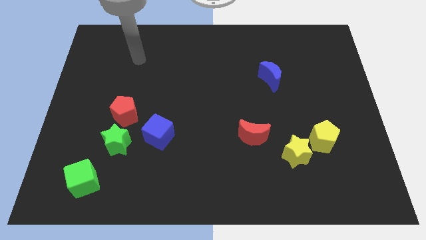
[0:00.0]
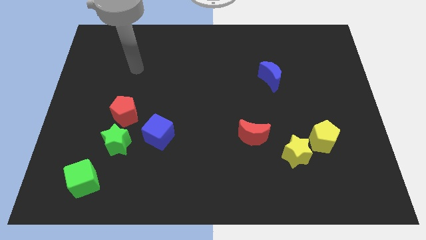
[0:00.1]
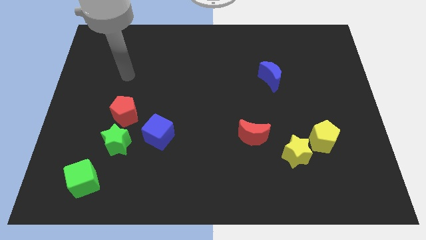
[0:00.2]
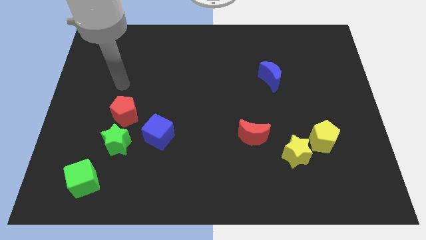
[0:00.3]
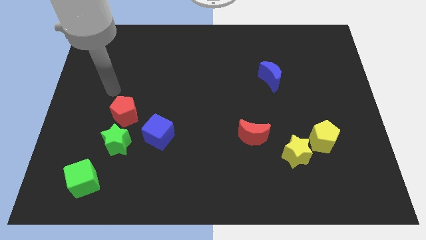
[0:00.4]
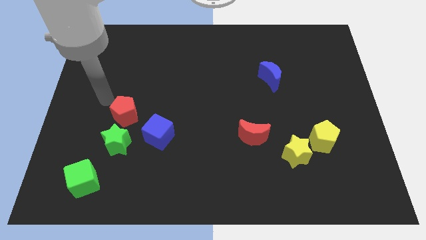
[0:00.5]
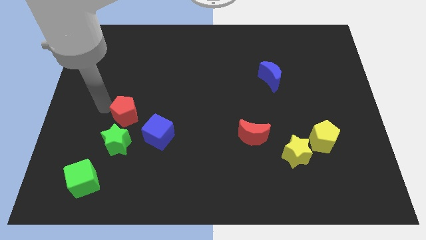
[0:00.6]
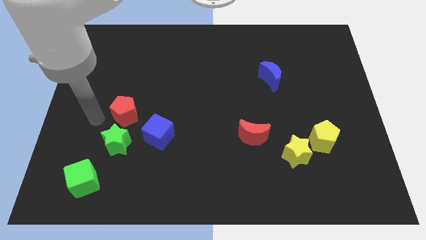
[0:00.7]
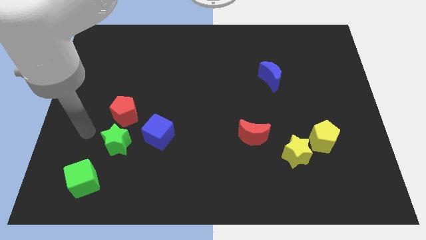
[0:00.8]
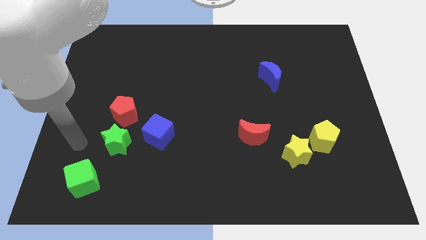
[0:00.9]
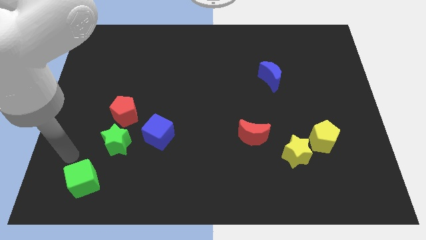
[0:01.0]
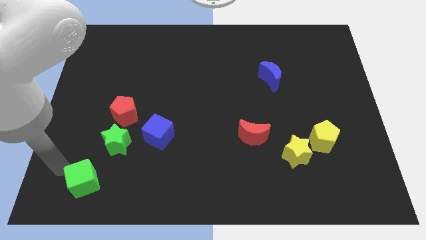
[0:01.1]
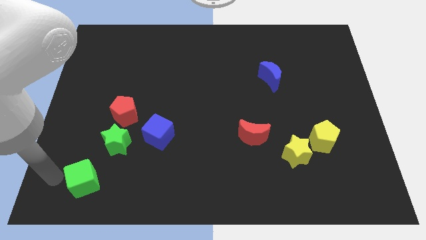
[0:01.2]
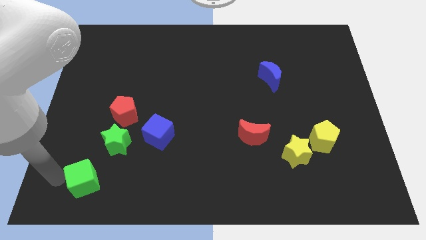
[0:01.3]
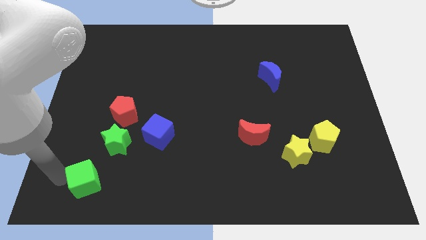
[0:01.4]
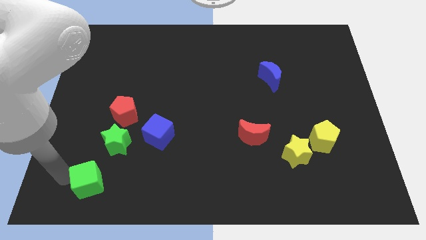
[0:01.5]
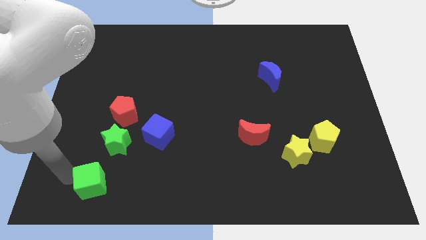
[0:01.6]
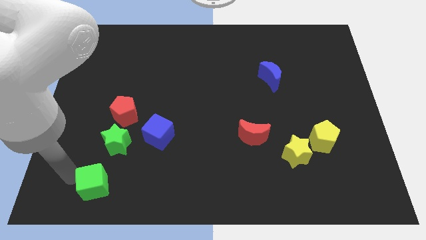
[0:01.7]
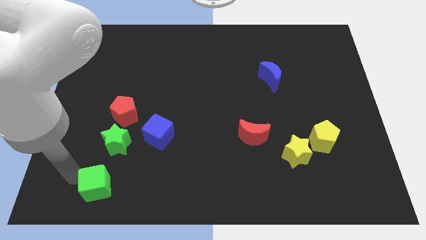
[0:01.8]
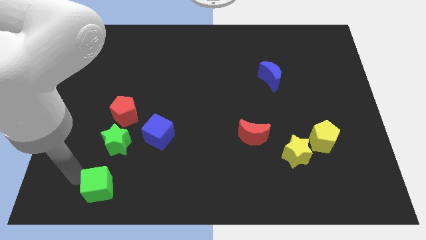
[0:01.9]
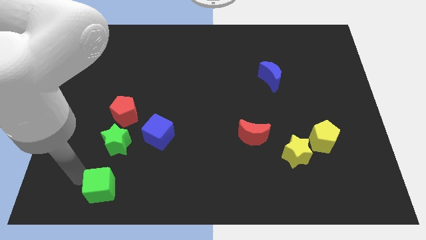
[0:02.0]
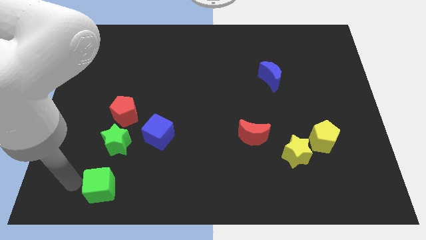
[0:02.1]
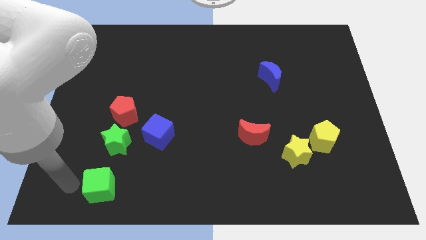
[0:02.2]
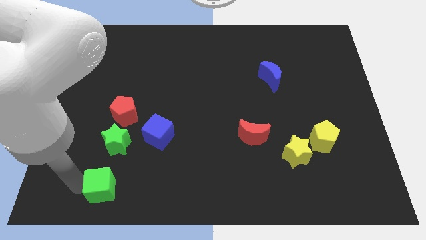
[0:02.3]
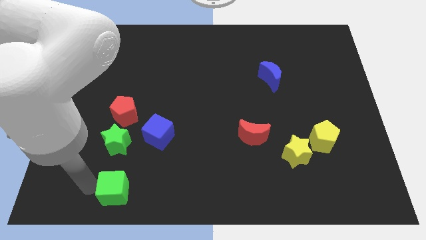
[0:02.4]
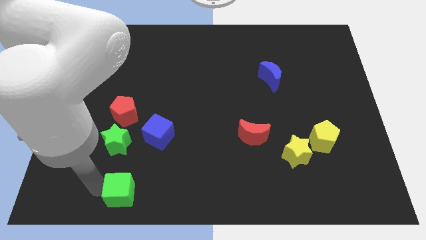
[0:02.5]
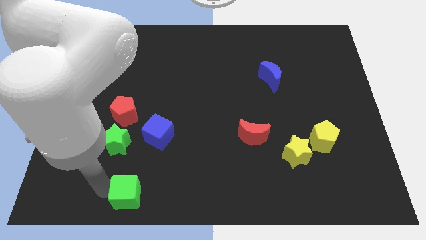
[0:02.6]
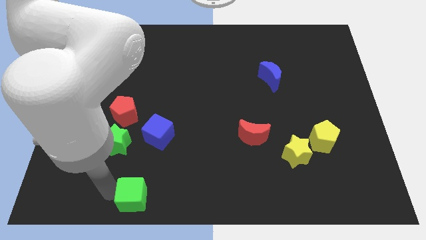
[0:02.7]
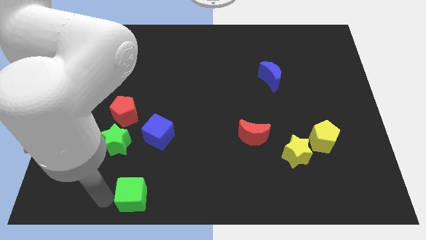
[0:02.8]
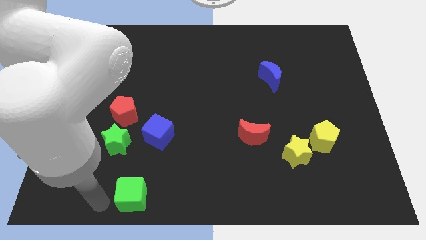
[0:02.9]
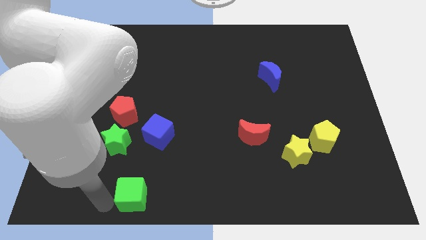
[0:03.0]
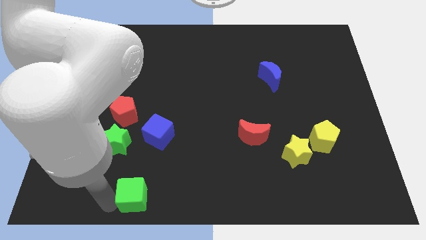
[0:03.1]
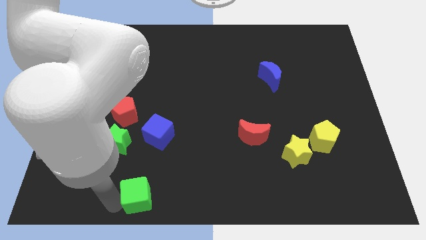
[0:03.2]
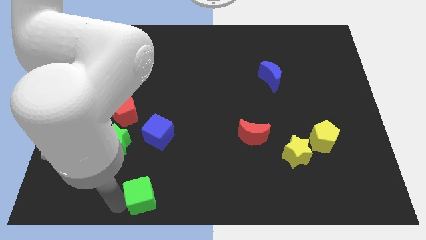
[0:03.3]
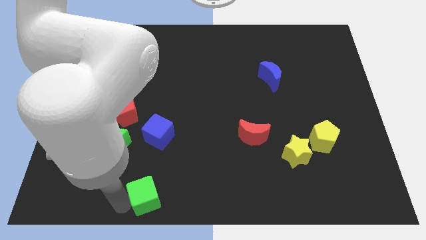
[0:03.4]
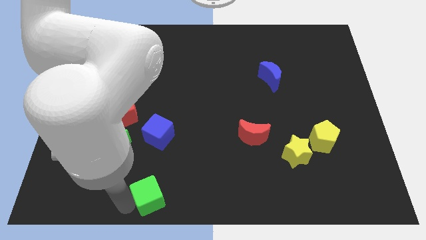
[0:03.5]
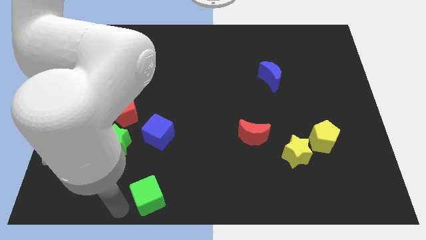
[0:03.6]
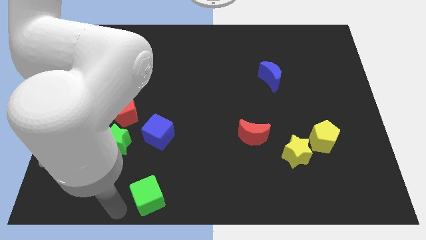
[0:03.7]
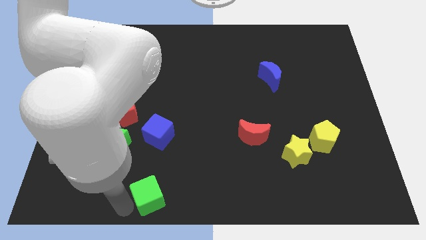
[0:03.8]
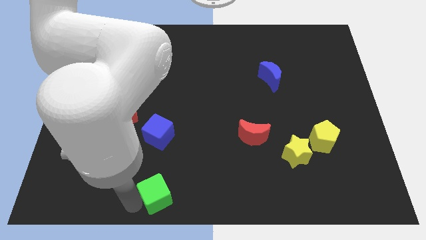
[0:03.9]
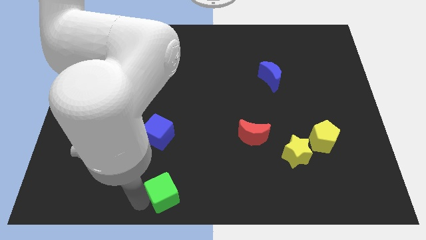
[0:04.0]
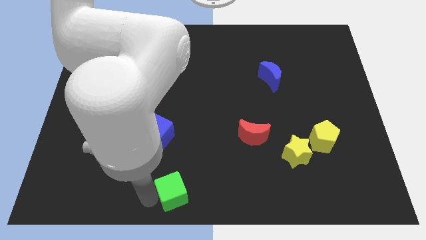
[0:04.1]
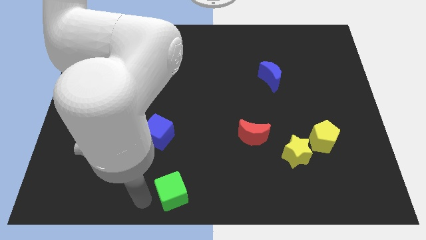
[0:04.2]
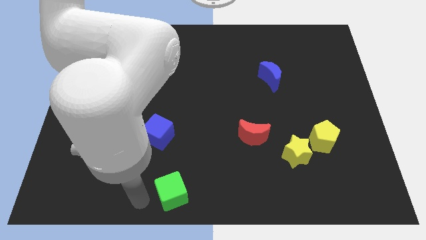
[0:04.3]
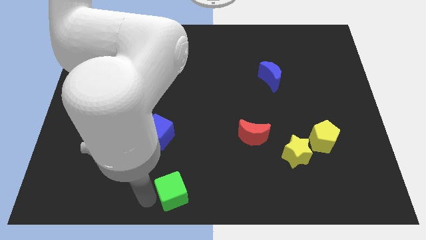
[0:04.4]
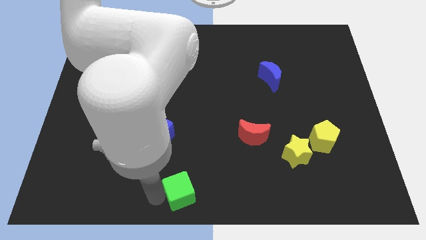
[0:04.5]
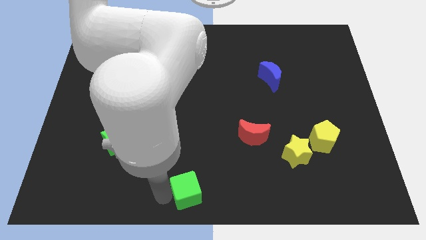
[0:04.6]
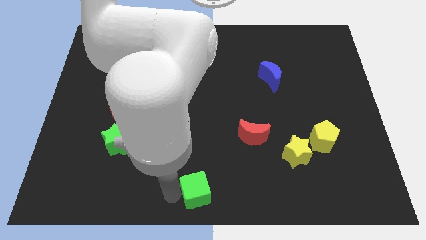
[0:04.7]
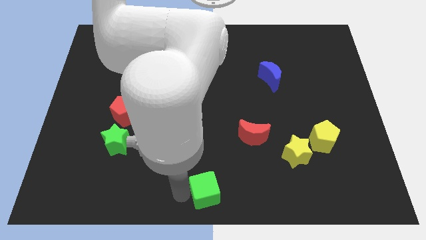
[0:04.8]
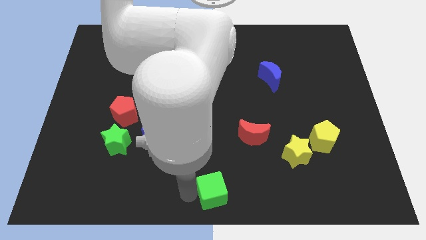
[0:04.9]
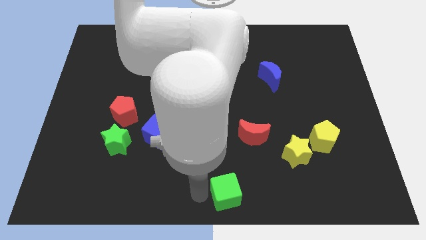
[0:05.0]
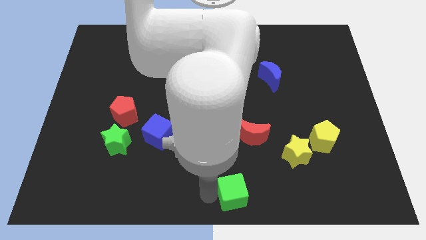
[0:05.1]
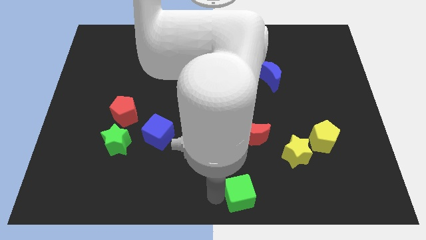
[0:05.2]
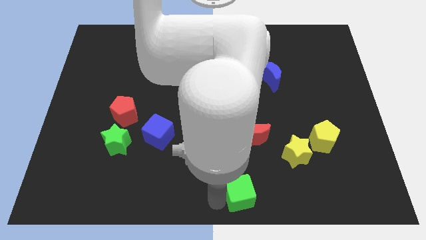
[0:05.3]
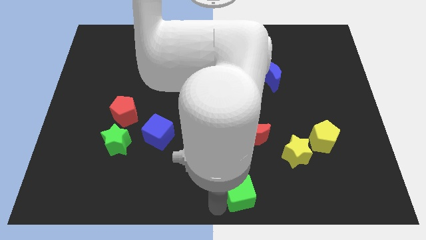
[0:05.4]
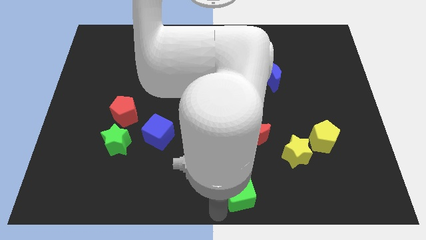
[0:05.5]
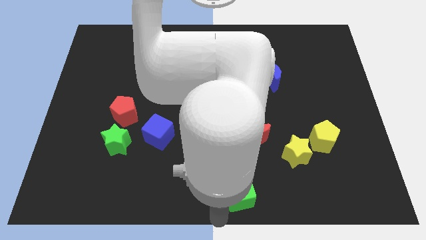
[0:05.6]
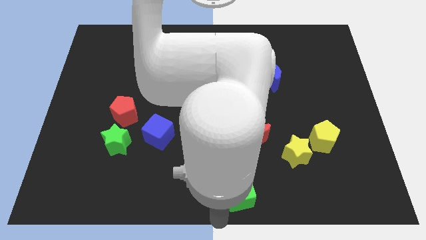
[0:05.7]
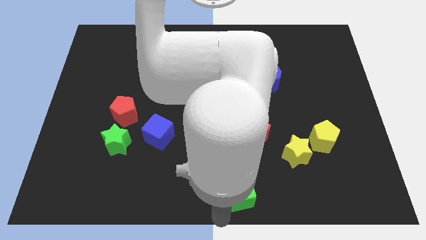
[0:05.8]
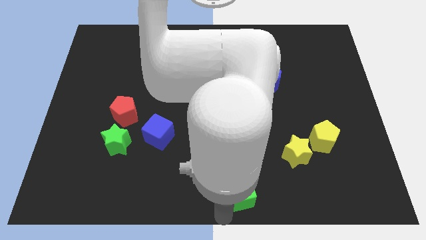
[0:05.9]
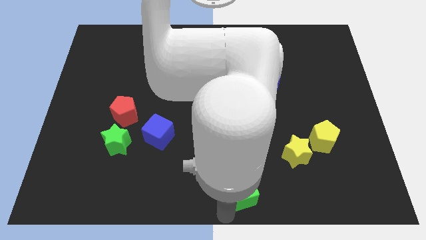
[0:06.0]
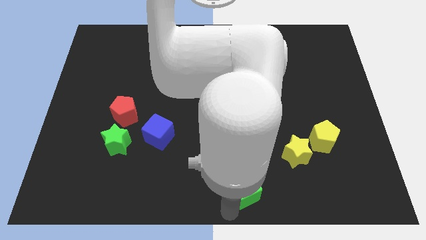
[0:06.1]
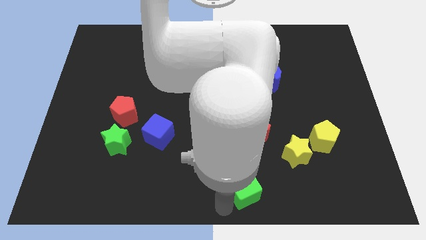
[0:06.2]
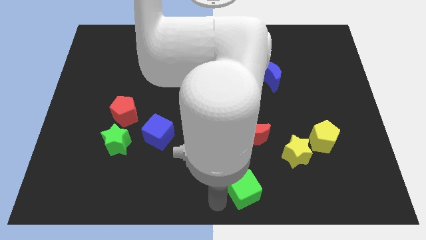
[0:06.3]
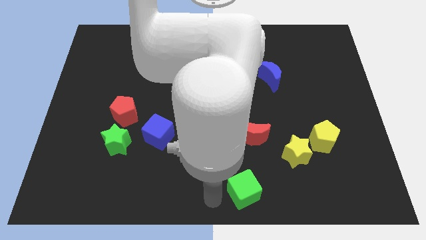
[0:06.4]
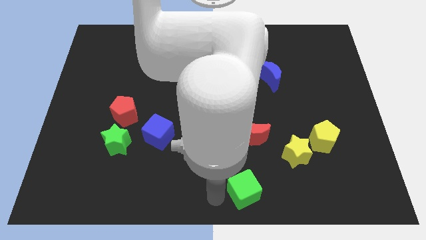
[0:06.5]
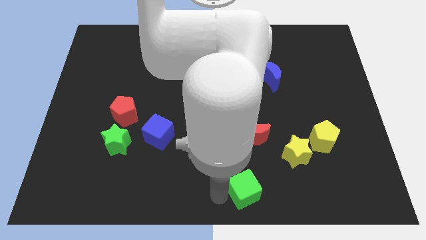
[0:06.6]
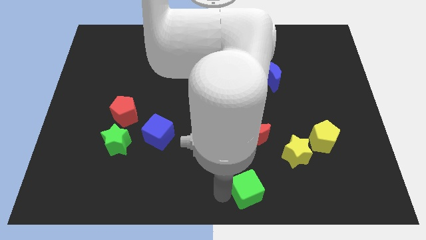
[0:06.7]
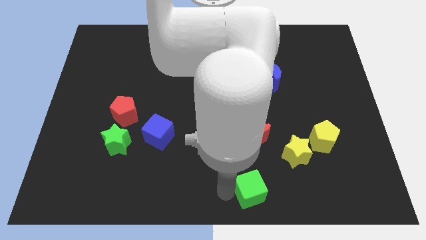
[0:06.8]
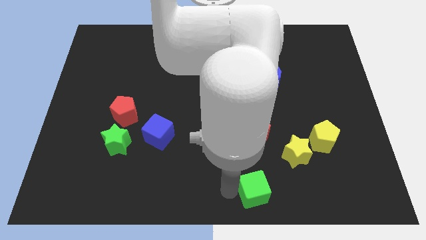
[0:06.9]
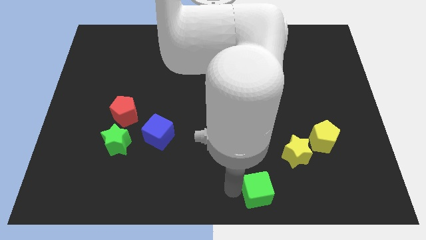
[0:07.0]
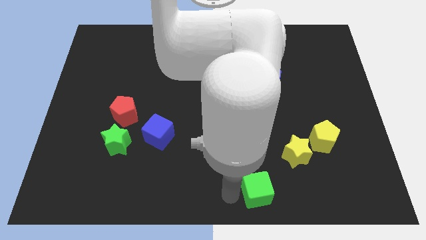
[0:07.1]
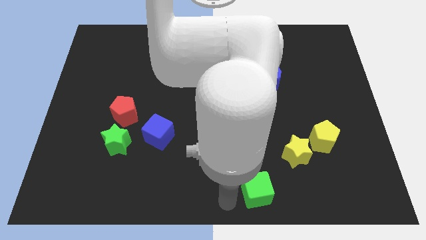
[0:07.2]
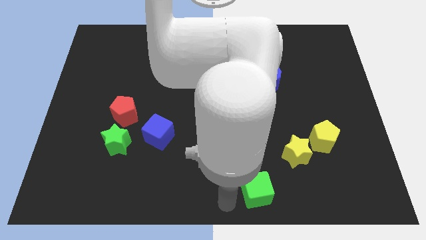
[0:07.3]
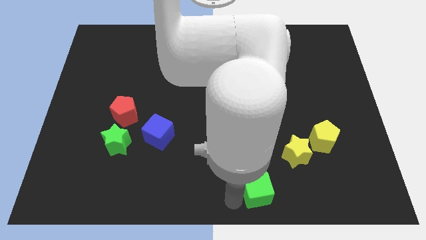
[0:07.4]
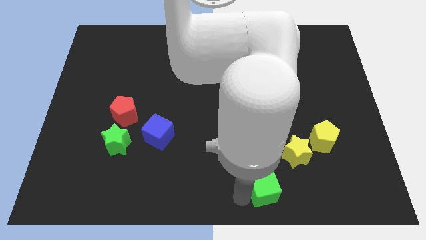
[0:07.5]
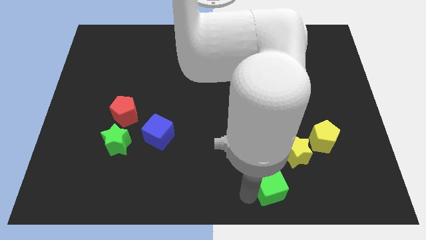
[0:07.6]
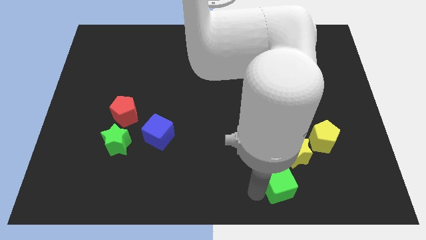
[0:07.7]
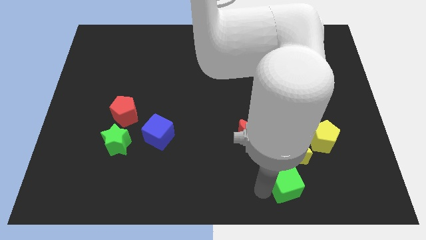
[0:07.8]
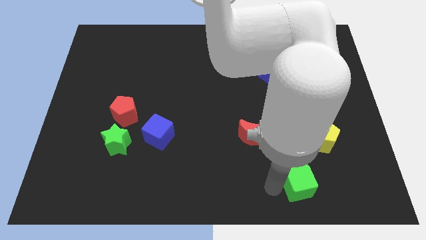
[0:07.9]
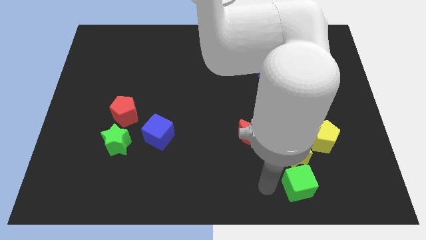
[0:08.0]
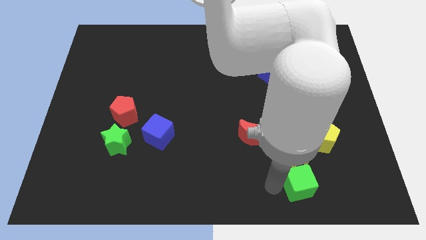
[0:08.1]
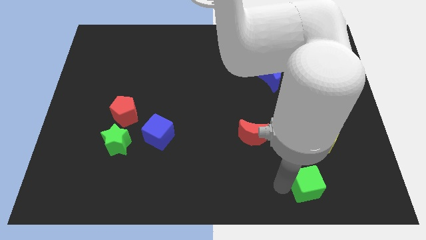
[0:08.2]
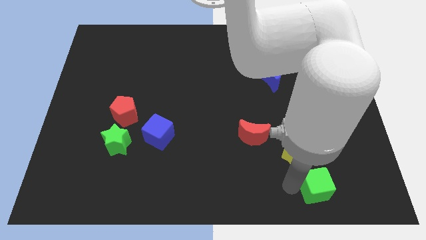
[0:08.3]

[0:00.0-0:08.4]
move the green cube to the bottom of the yellow pentagon
